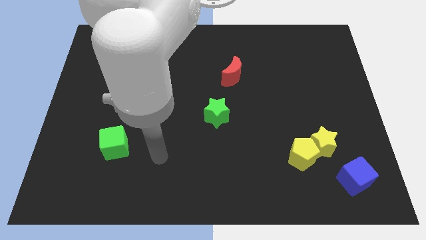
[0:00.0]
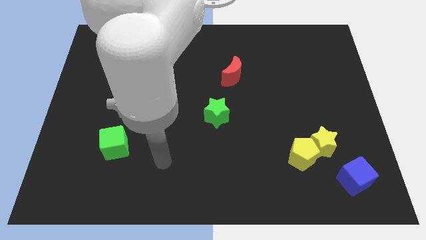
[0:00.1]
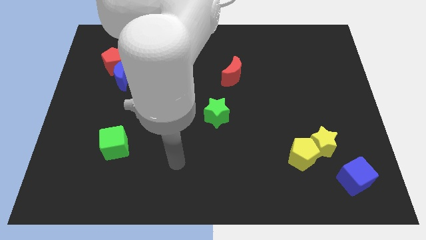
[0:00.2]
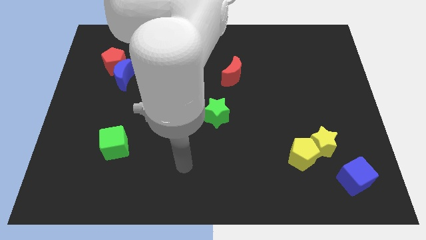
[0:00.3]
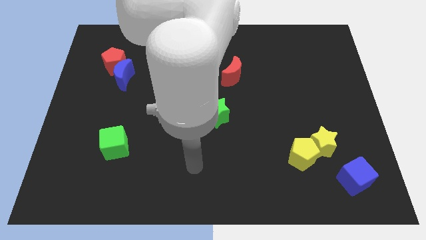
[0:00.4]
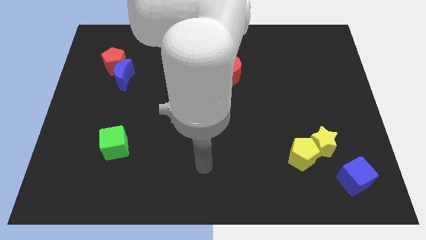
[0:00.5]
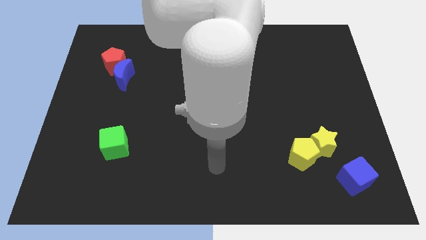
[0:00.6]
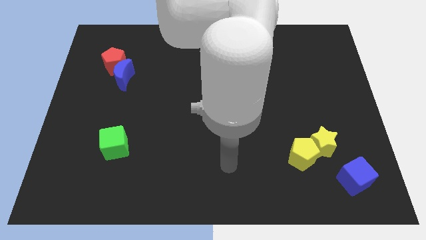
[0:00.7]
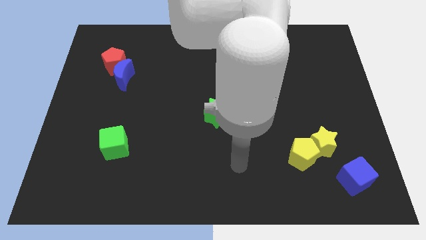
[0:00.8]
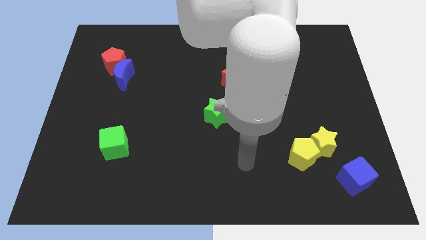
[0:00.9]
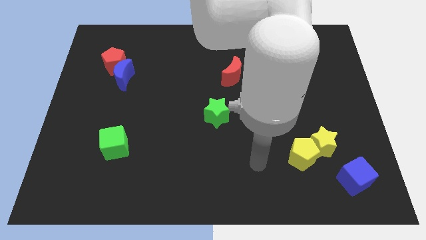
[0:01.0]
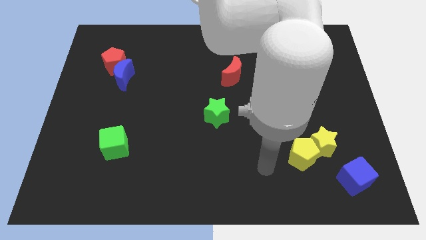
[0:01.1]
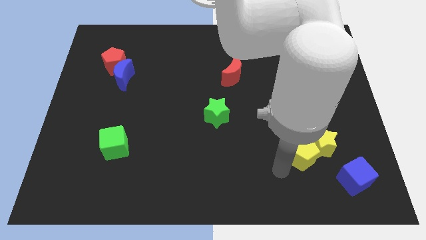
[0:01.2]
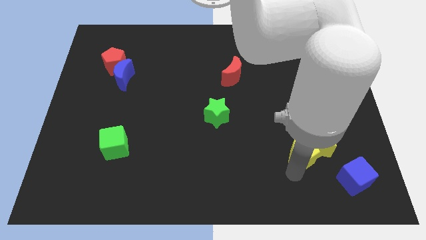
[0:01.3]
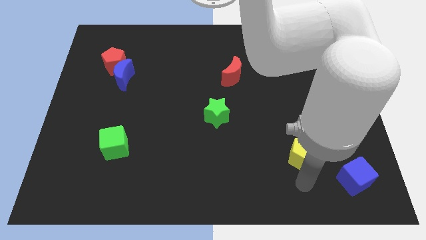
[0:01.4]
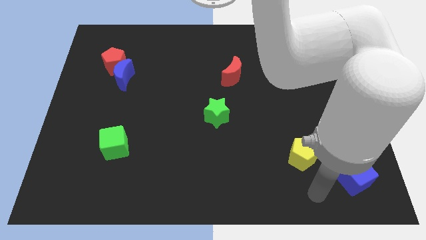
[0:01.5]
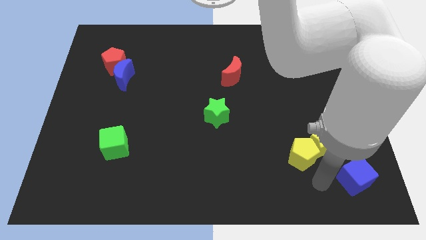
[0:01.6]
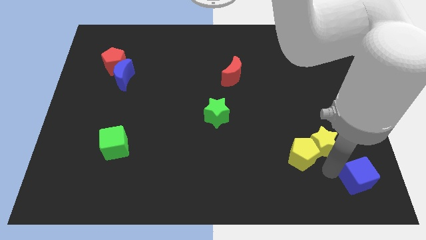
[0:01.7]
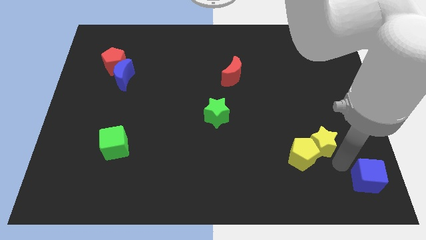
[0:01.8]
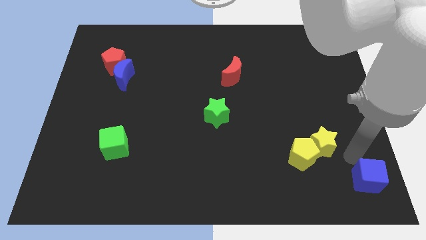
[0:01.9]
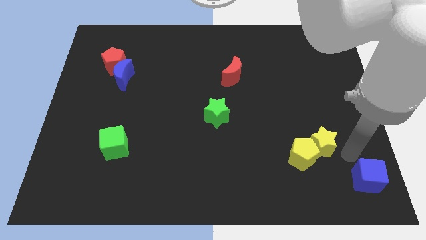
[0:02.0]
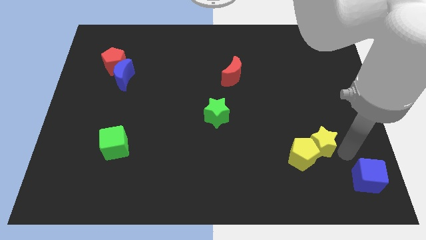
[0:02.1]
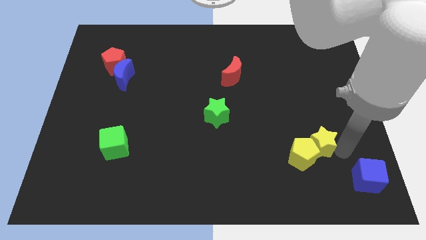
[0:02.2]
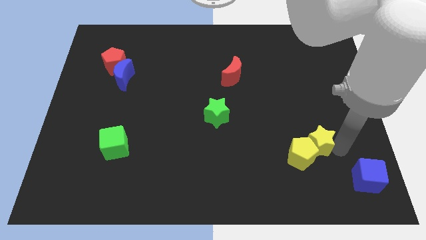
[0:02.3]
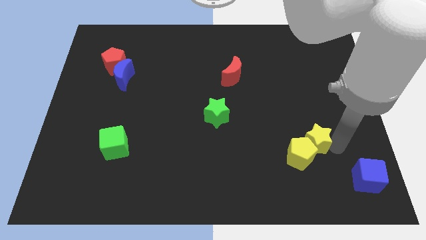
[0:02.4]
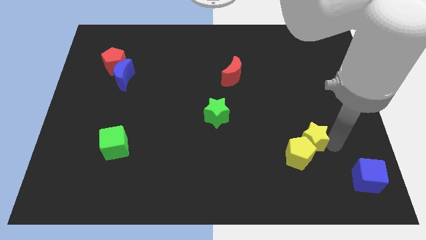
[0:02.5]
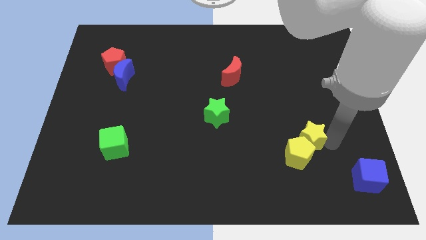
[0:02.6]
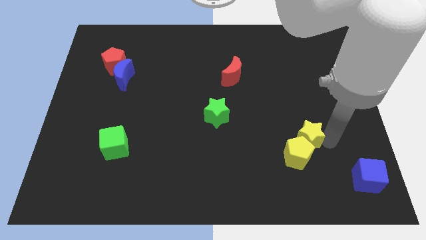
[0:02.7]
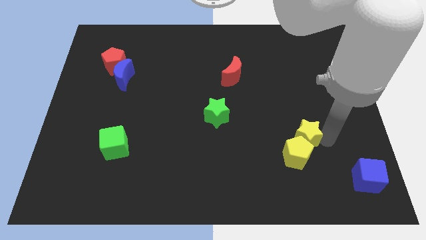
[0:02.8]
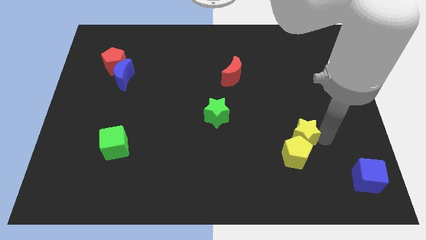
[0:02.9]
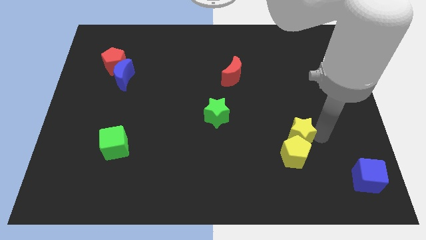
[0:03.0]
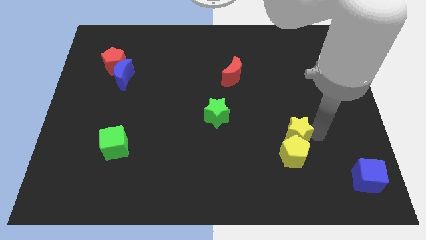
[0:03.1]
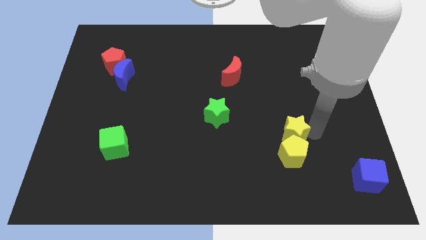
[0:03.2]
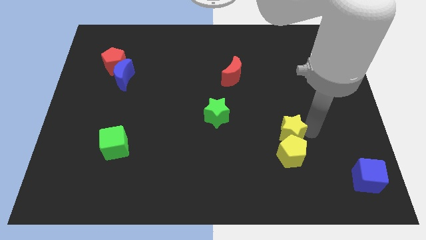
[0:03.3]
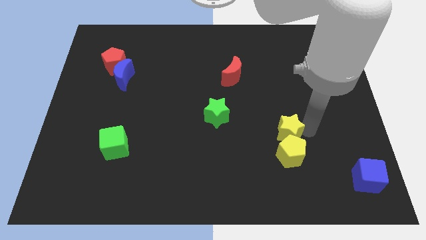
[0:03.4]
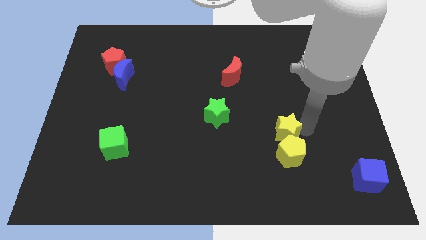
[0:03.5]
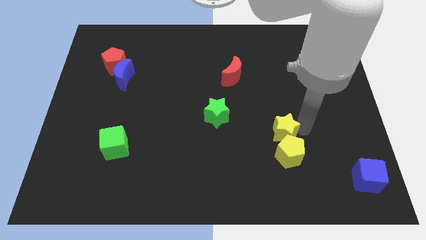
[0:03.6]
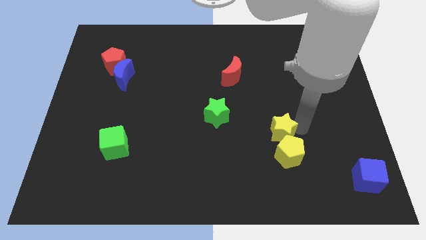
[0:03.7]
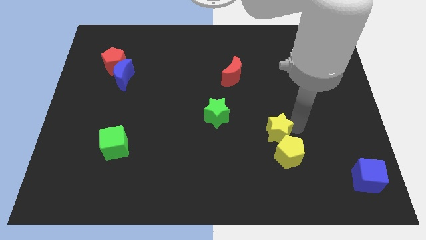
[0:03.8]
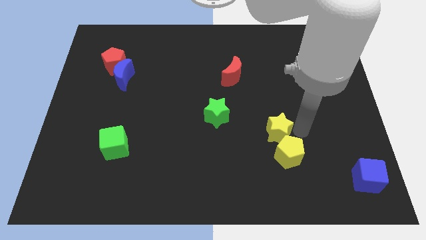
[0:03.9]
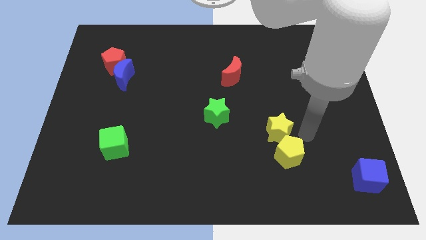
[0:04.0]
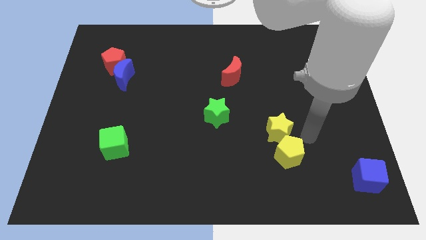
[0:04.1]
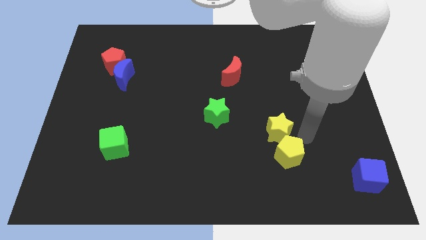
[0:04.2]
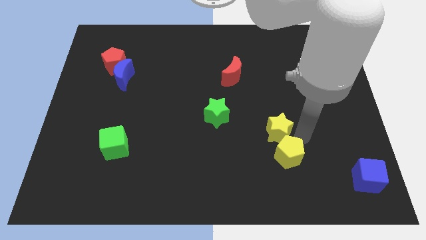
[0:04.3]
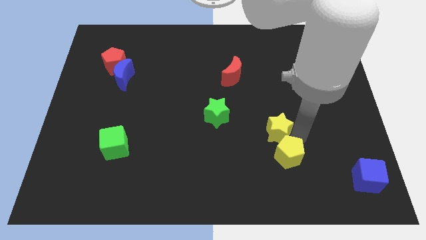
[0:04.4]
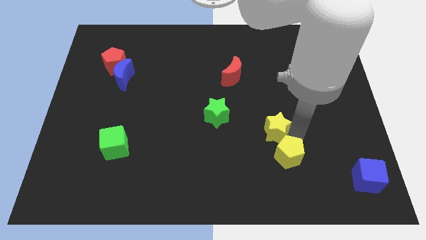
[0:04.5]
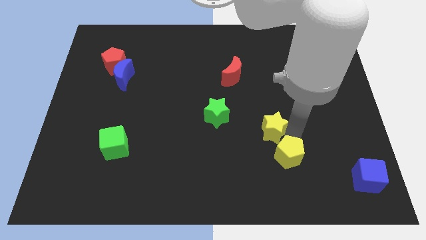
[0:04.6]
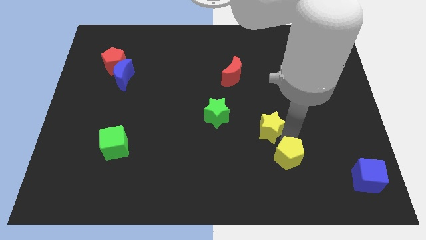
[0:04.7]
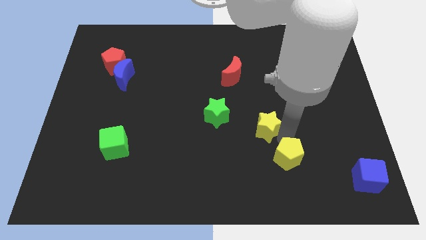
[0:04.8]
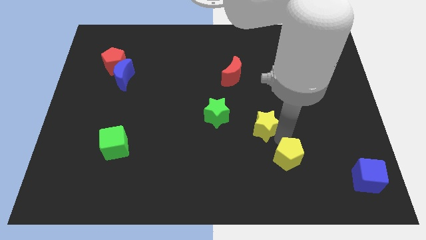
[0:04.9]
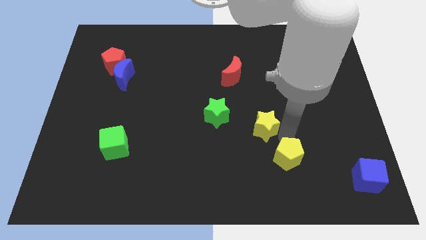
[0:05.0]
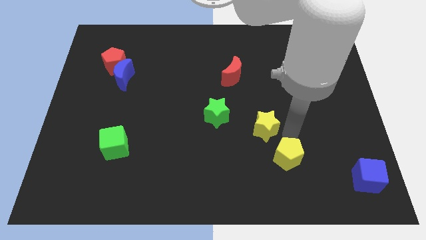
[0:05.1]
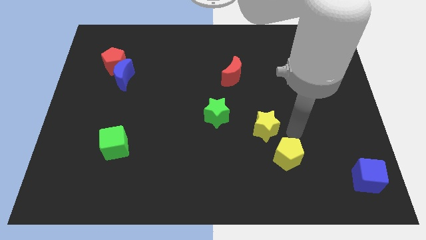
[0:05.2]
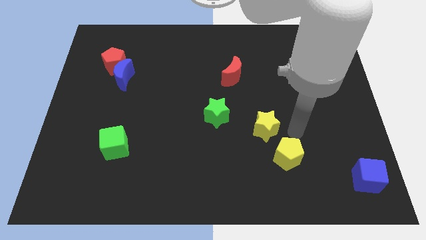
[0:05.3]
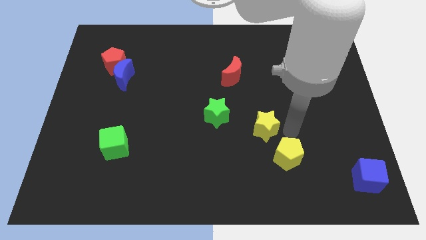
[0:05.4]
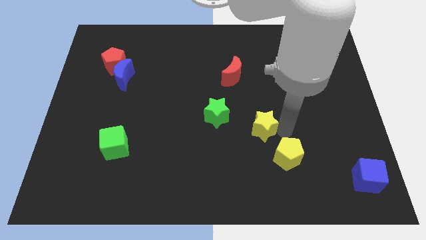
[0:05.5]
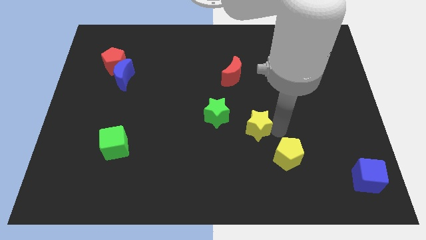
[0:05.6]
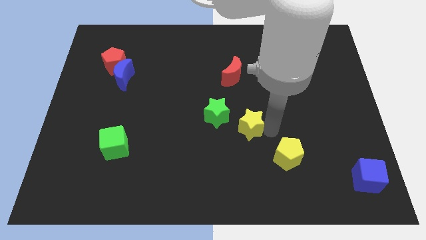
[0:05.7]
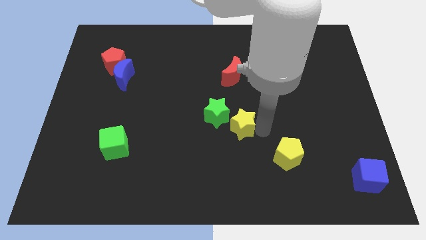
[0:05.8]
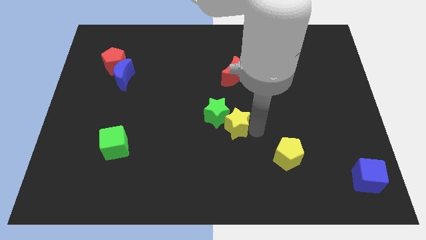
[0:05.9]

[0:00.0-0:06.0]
push the yellow star to the green star

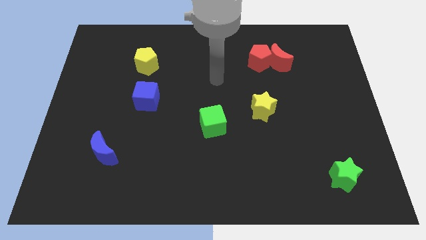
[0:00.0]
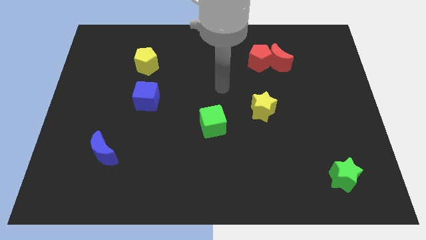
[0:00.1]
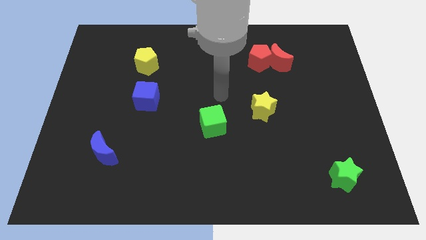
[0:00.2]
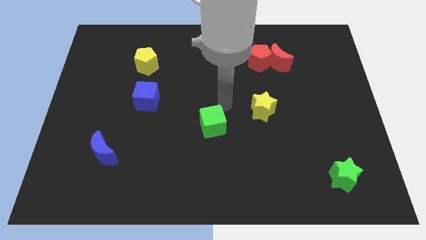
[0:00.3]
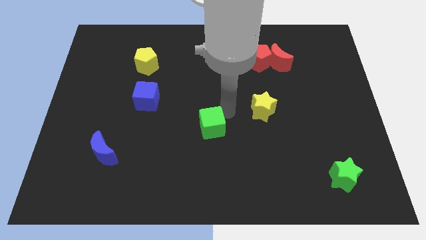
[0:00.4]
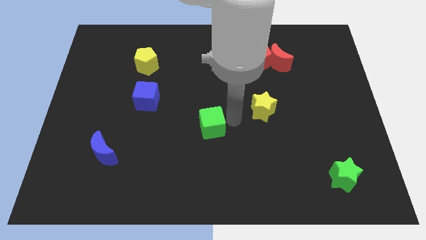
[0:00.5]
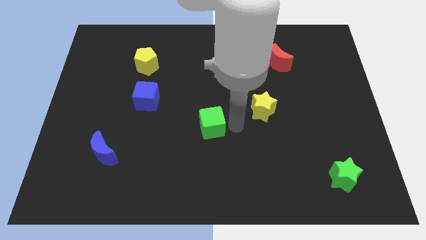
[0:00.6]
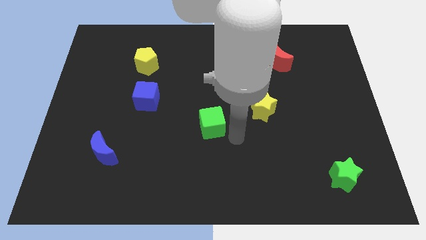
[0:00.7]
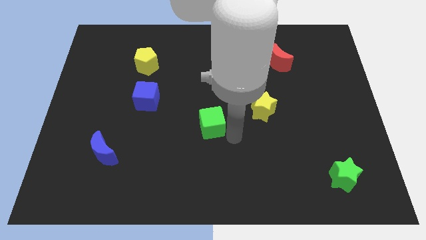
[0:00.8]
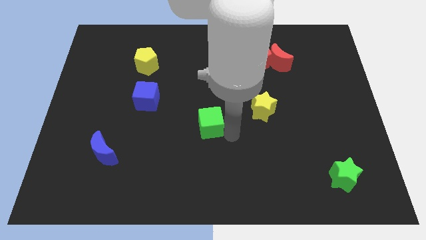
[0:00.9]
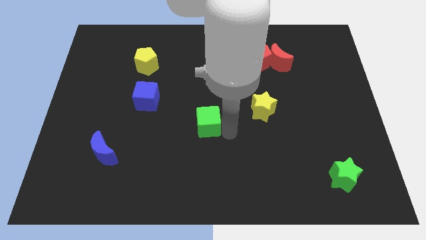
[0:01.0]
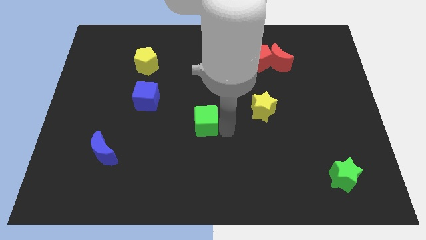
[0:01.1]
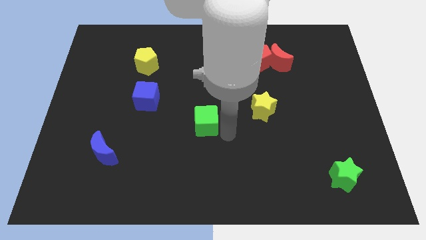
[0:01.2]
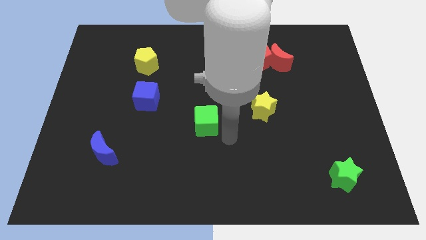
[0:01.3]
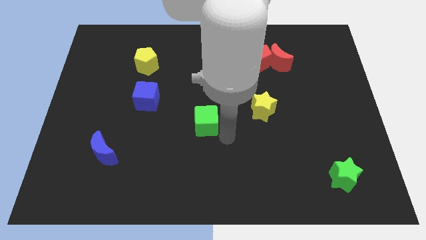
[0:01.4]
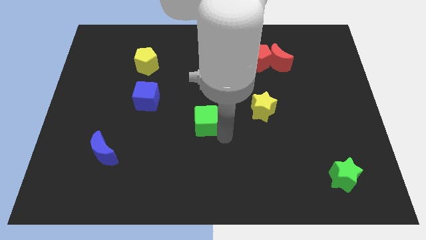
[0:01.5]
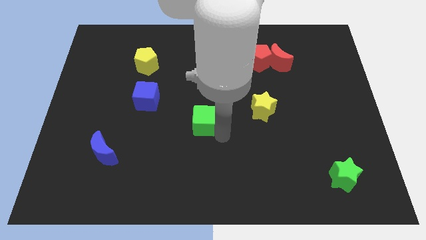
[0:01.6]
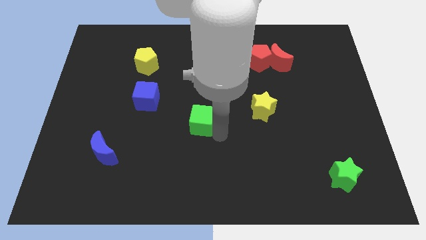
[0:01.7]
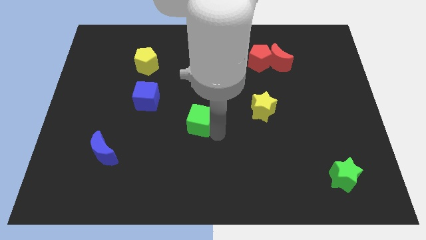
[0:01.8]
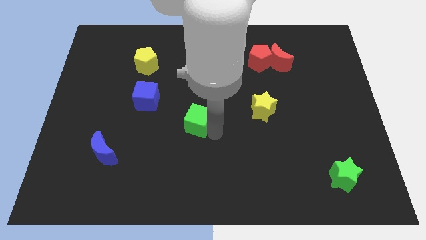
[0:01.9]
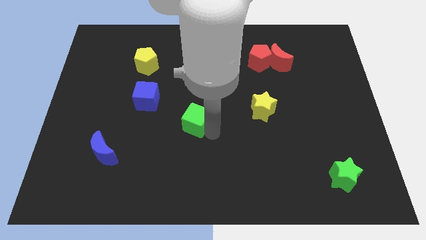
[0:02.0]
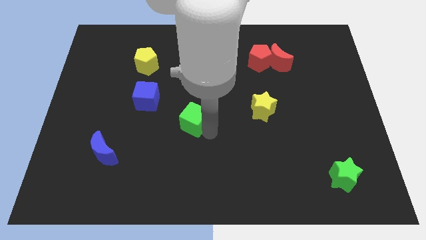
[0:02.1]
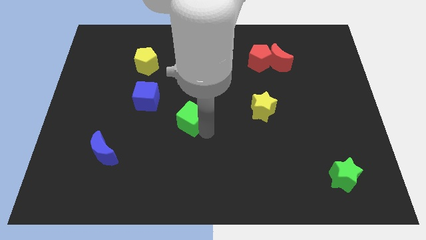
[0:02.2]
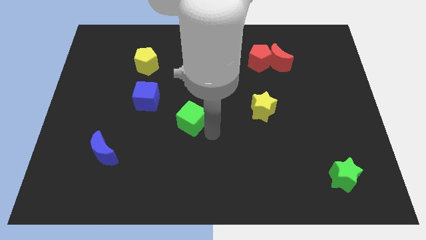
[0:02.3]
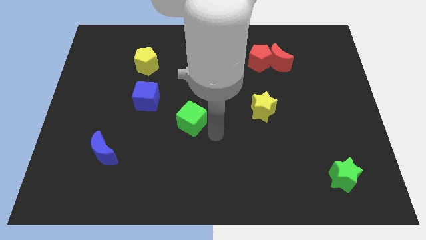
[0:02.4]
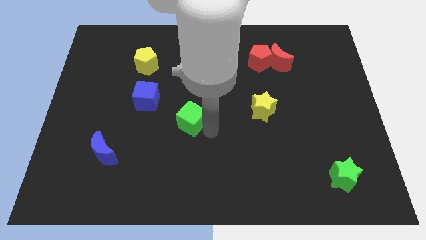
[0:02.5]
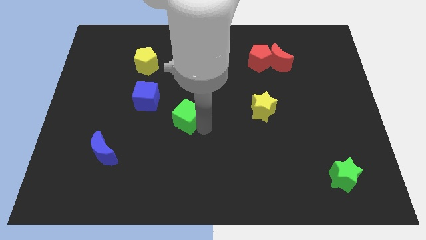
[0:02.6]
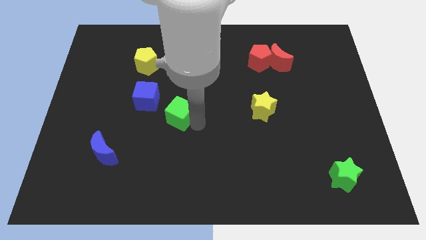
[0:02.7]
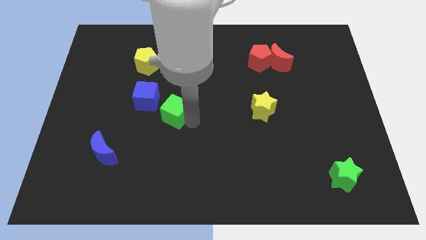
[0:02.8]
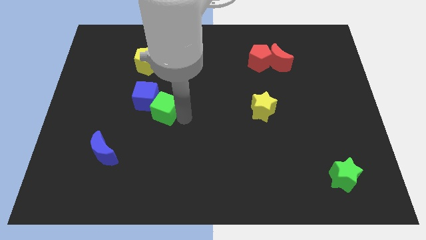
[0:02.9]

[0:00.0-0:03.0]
slide the green cube to the blue cube
